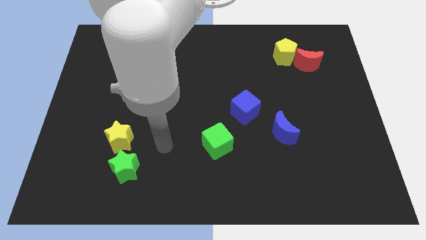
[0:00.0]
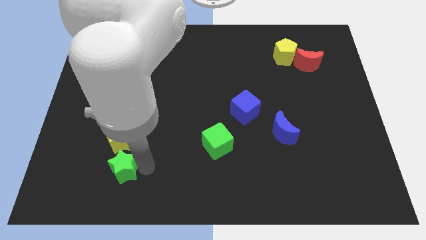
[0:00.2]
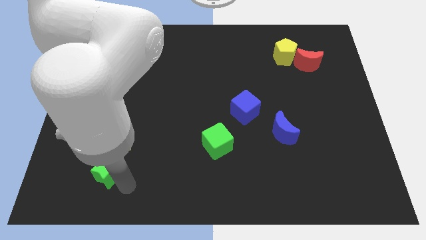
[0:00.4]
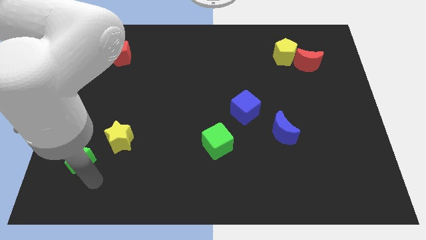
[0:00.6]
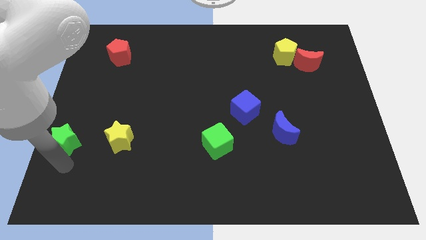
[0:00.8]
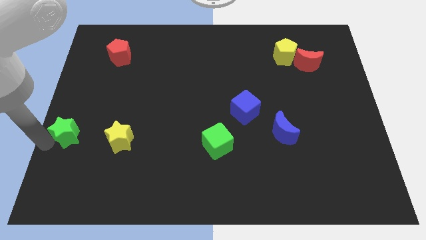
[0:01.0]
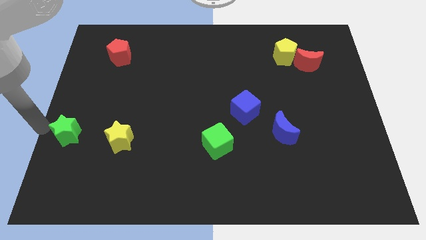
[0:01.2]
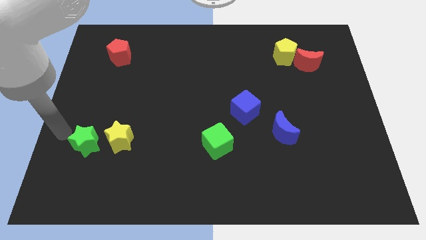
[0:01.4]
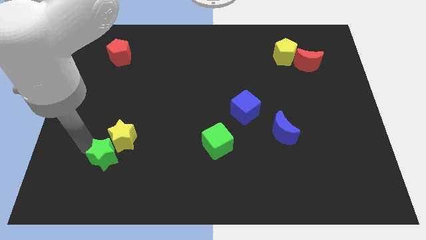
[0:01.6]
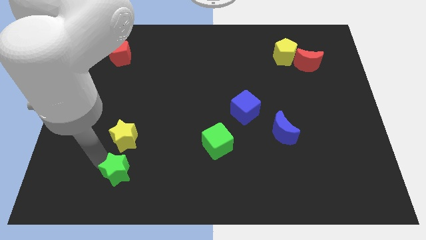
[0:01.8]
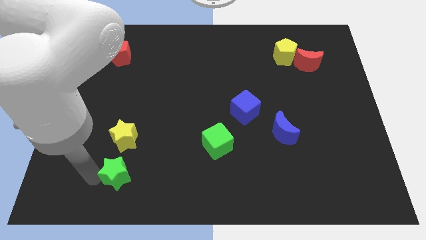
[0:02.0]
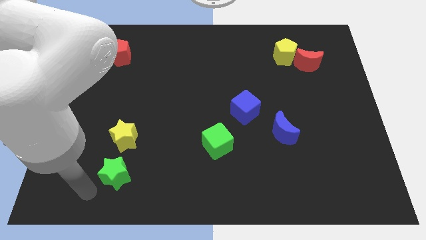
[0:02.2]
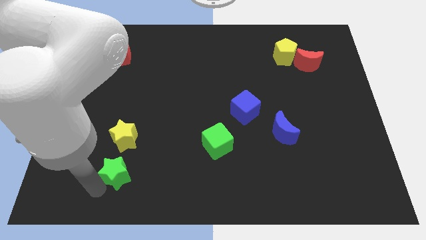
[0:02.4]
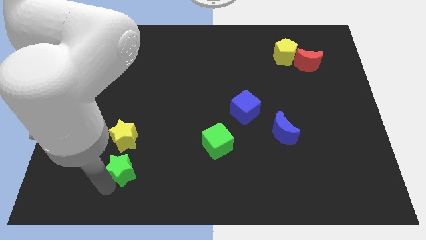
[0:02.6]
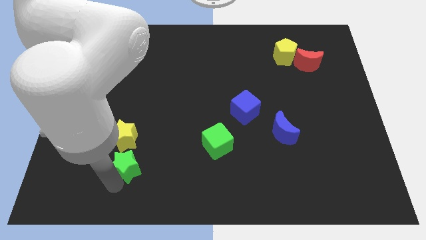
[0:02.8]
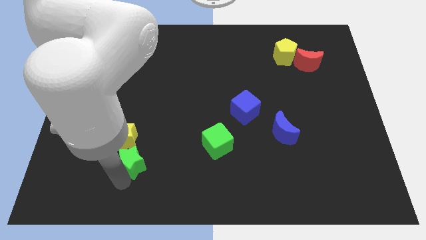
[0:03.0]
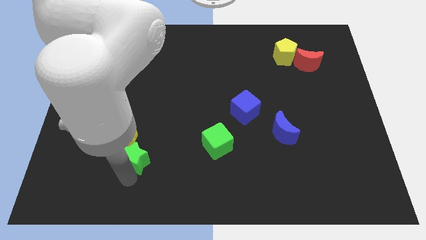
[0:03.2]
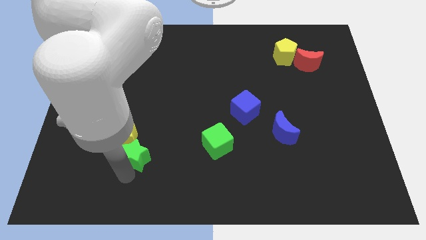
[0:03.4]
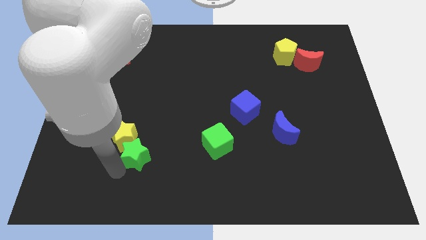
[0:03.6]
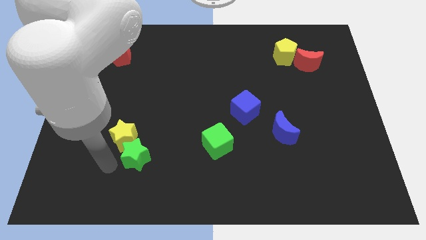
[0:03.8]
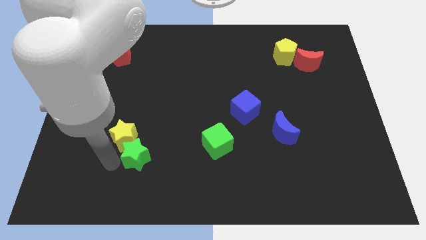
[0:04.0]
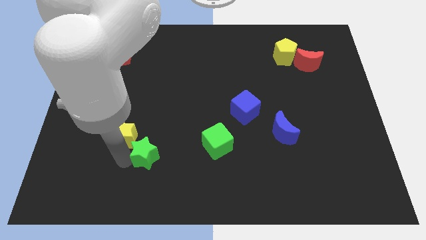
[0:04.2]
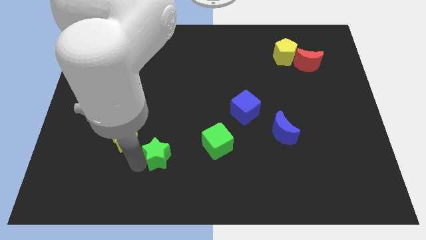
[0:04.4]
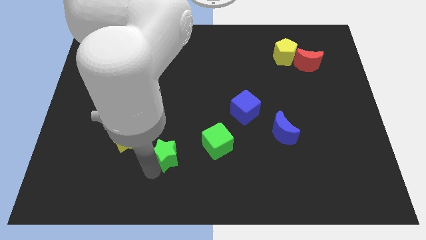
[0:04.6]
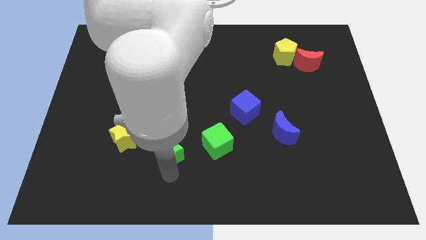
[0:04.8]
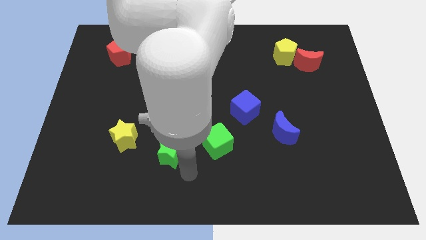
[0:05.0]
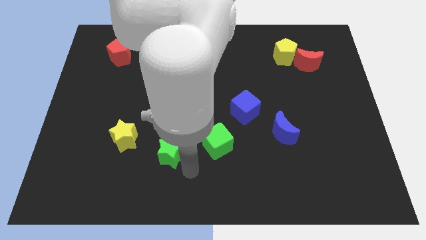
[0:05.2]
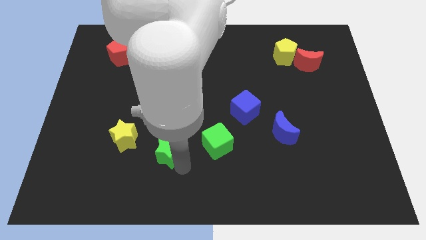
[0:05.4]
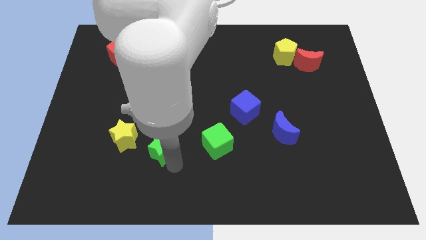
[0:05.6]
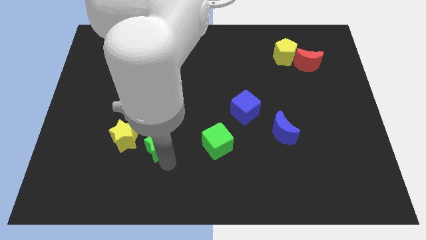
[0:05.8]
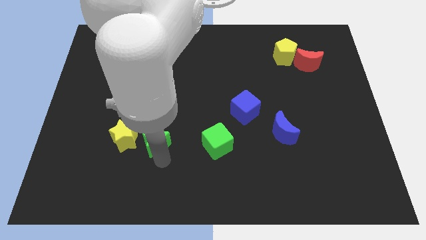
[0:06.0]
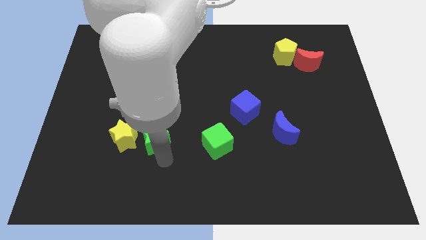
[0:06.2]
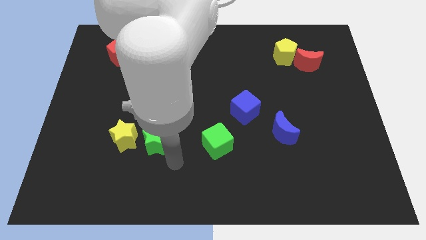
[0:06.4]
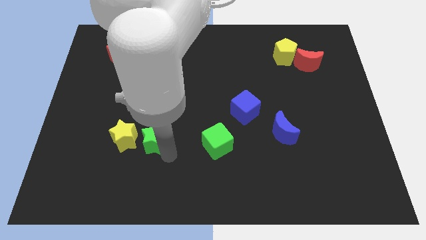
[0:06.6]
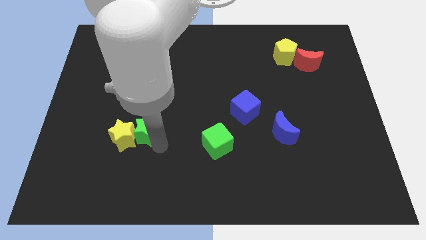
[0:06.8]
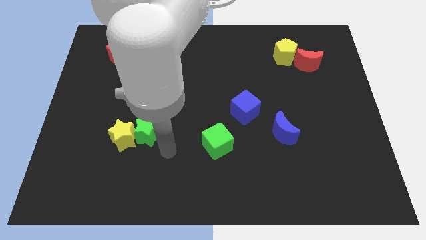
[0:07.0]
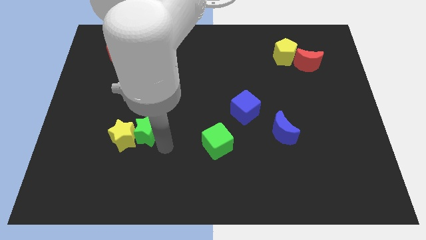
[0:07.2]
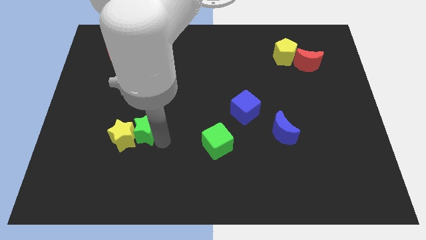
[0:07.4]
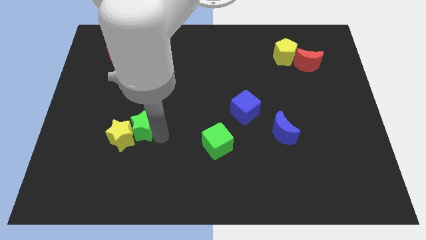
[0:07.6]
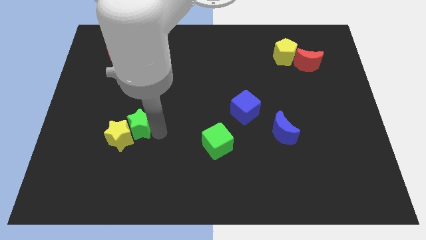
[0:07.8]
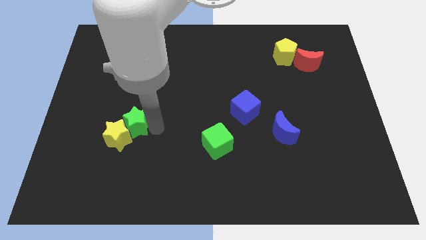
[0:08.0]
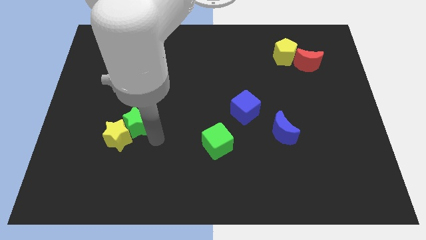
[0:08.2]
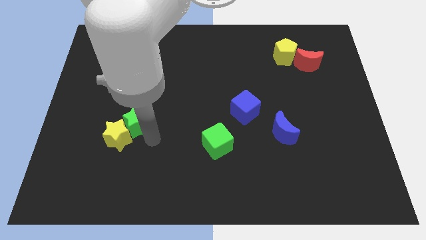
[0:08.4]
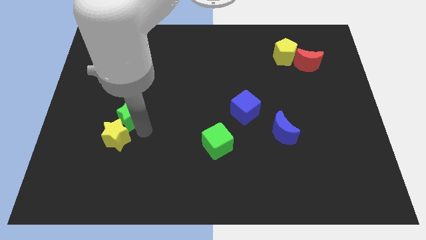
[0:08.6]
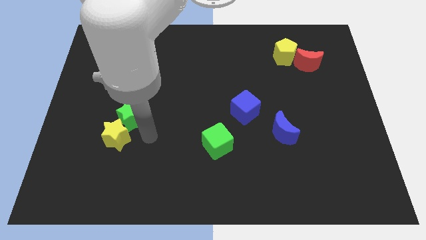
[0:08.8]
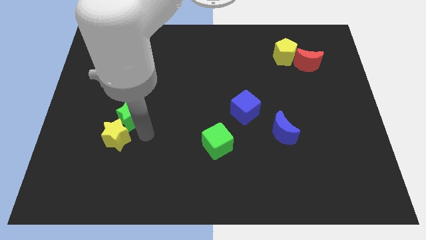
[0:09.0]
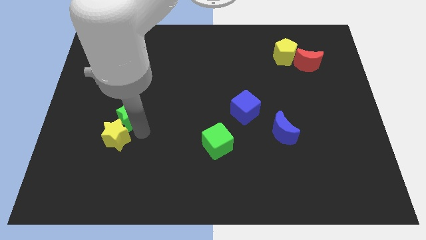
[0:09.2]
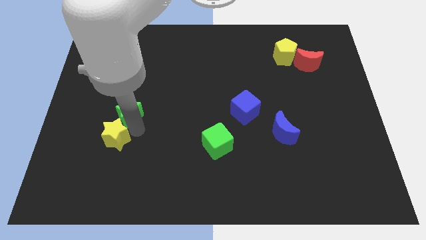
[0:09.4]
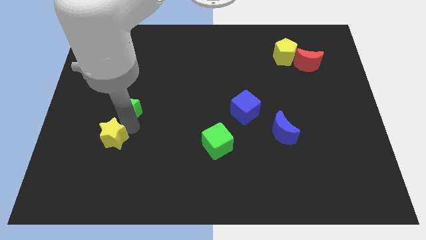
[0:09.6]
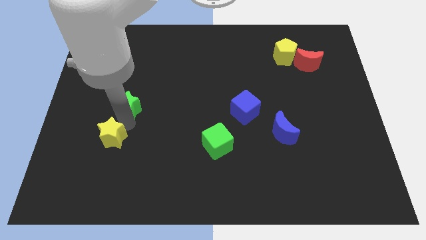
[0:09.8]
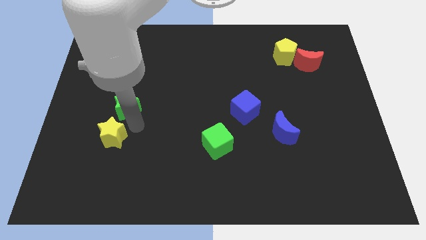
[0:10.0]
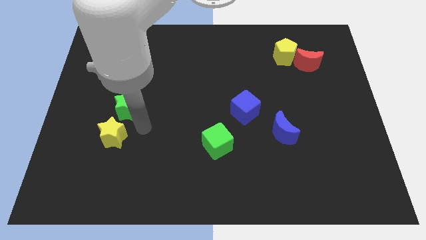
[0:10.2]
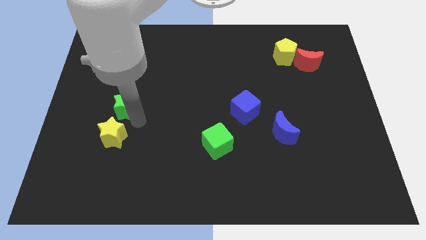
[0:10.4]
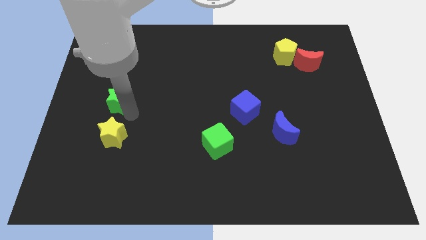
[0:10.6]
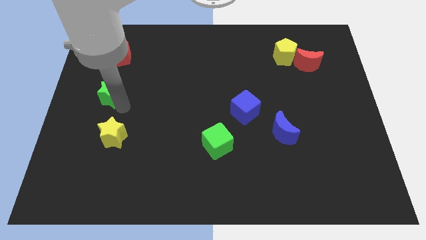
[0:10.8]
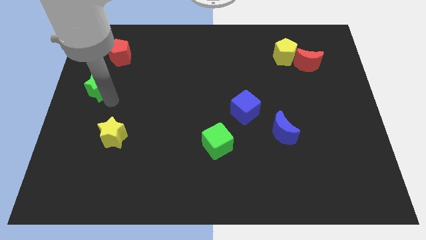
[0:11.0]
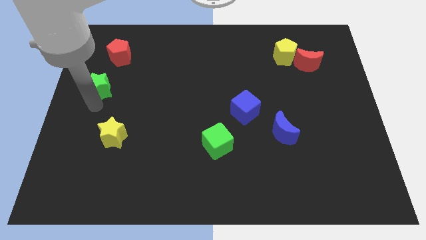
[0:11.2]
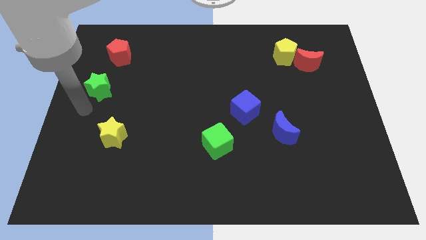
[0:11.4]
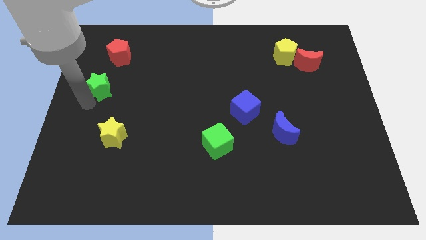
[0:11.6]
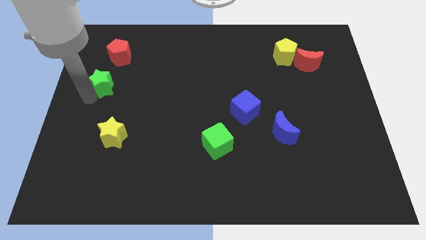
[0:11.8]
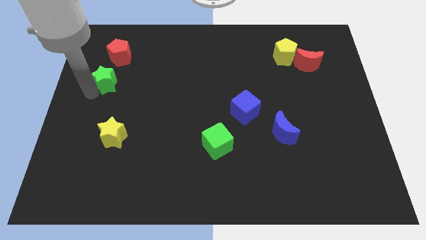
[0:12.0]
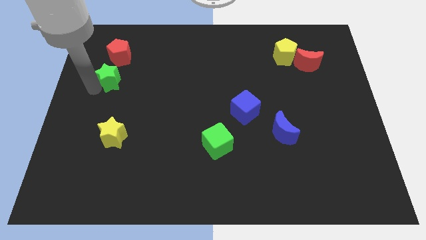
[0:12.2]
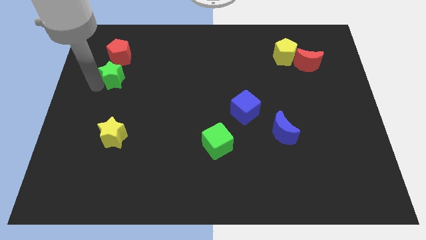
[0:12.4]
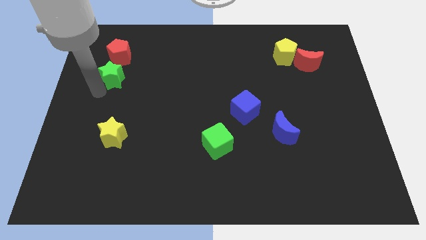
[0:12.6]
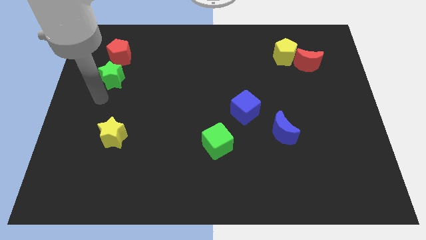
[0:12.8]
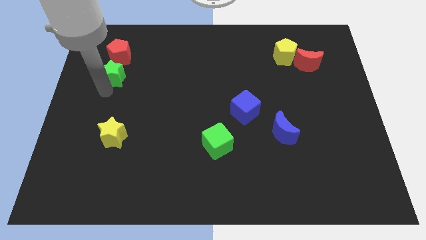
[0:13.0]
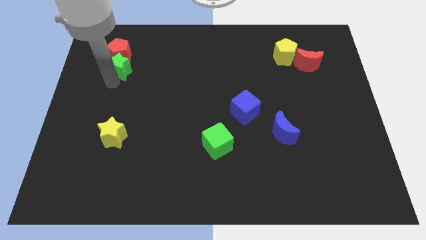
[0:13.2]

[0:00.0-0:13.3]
move the green star towards the red pentagon

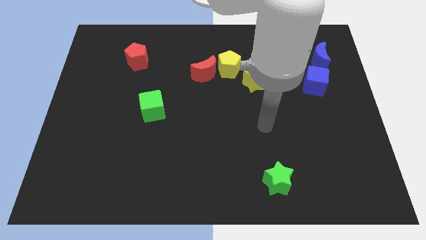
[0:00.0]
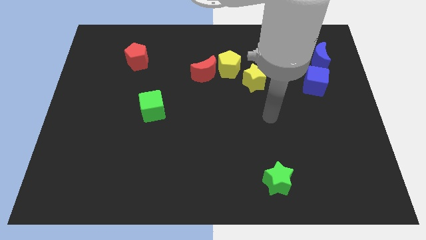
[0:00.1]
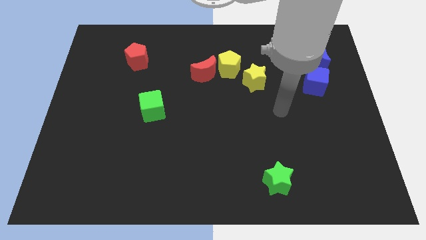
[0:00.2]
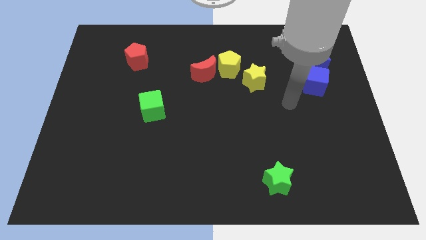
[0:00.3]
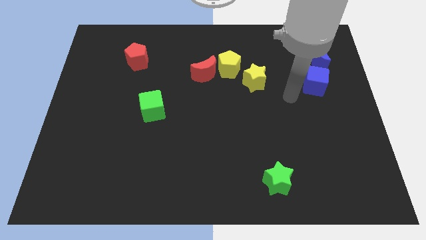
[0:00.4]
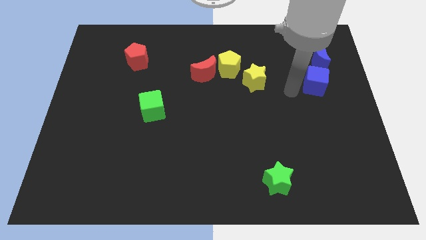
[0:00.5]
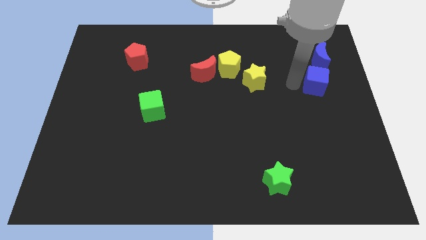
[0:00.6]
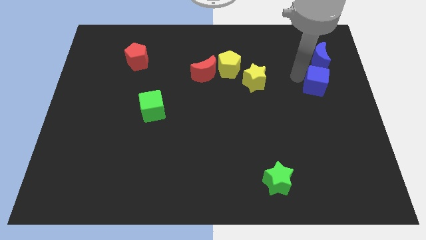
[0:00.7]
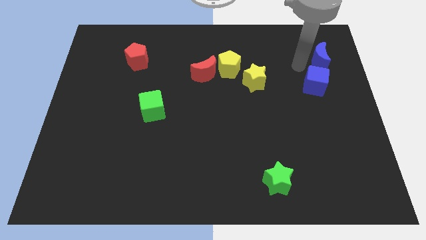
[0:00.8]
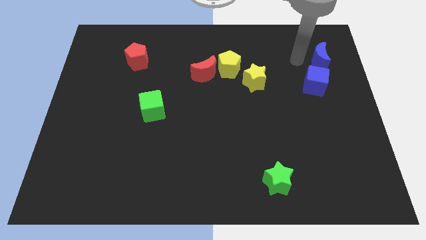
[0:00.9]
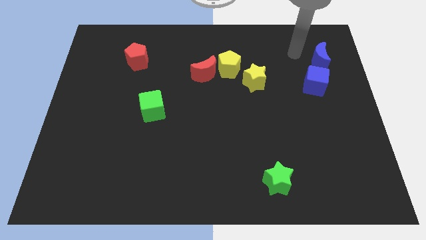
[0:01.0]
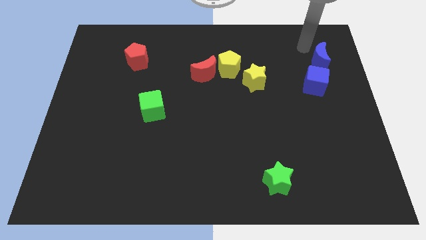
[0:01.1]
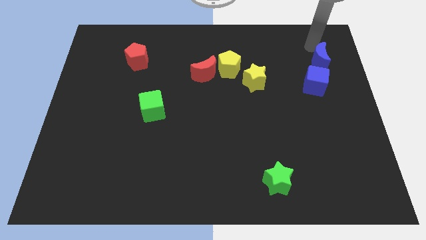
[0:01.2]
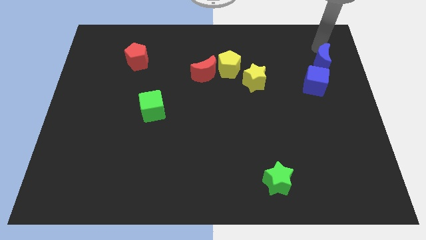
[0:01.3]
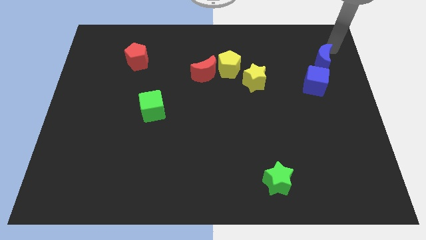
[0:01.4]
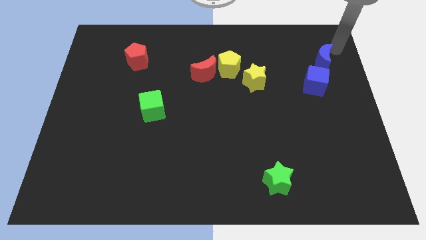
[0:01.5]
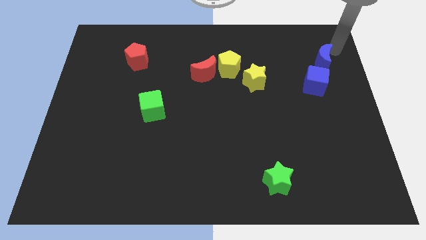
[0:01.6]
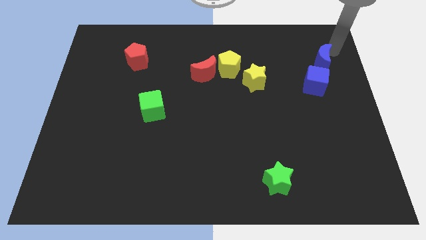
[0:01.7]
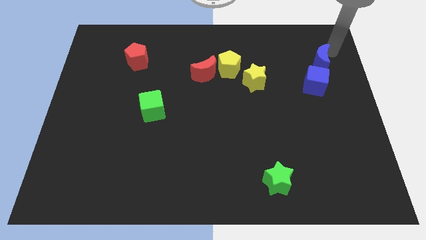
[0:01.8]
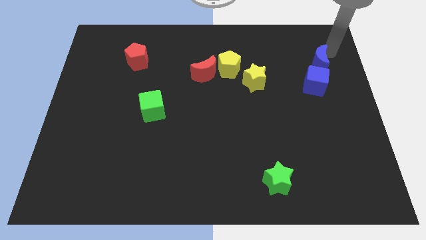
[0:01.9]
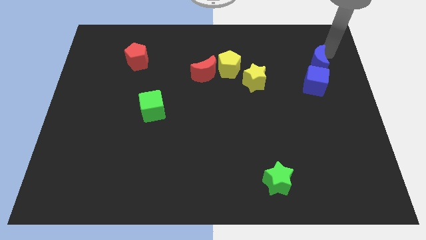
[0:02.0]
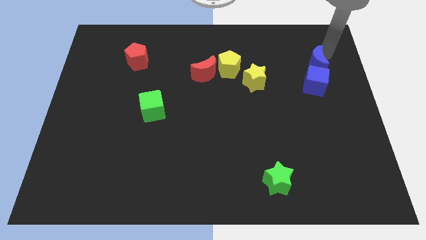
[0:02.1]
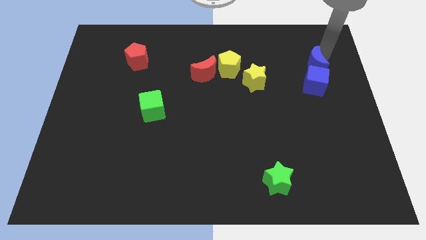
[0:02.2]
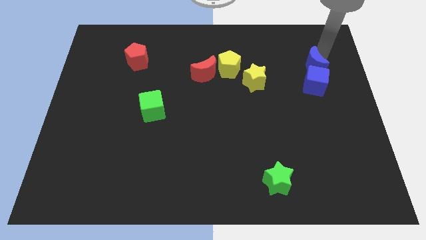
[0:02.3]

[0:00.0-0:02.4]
push the blue moon next to the blue cube
